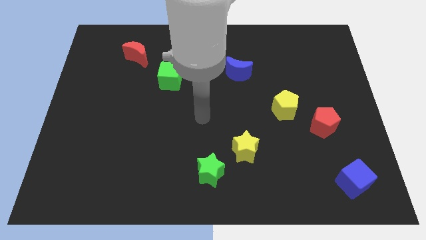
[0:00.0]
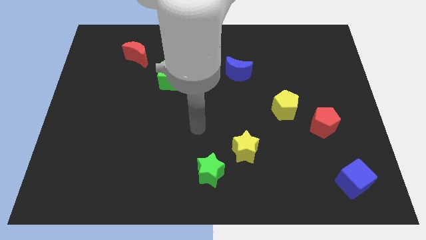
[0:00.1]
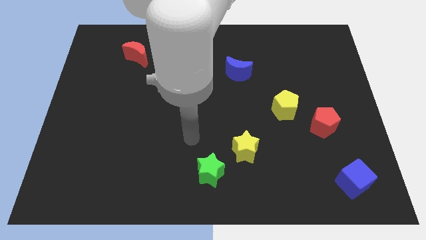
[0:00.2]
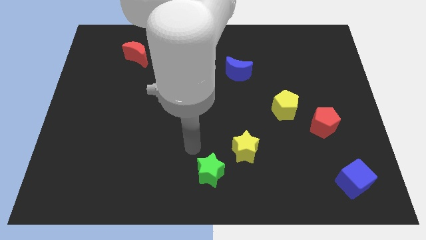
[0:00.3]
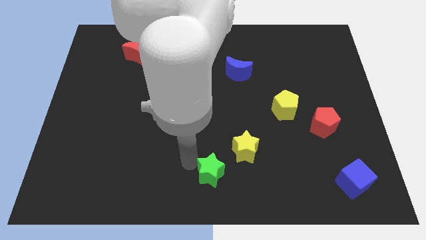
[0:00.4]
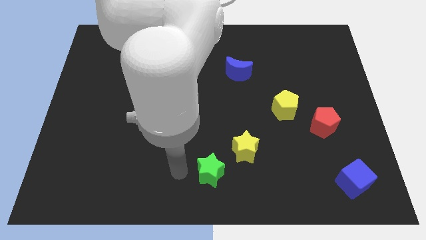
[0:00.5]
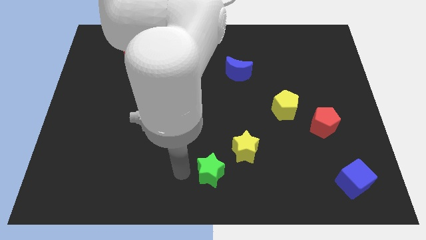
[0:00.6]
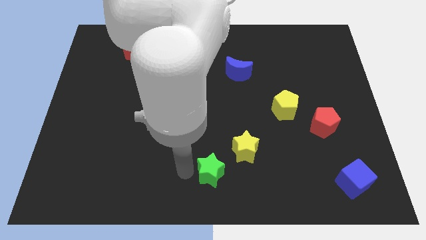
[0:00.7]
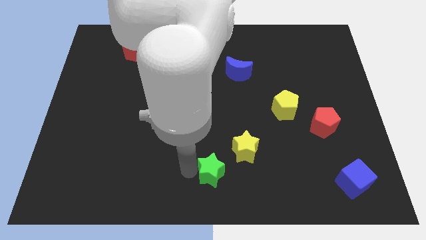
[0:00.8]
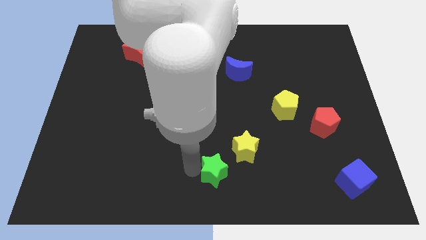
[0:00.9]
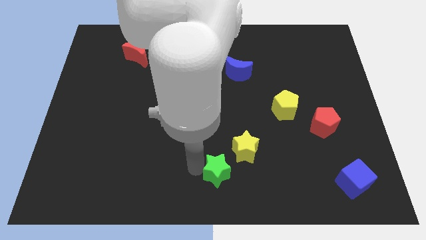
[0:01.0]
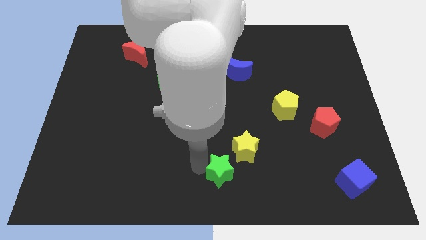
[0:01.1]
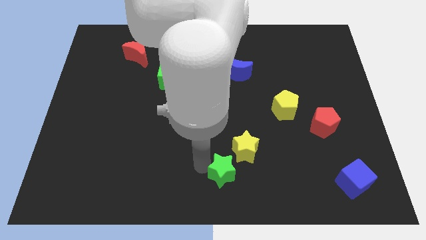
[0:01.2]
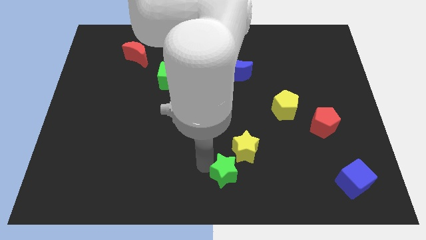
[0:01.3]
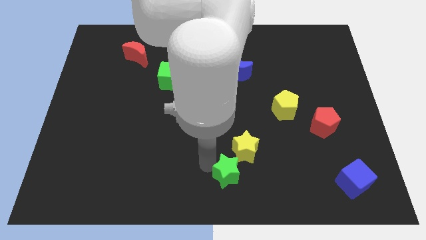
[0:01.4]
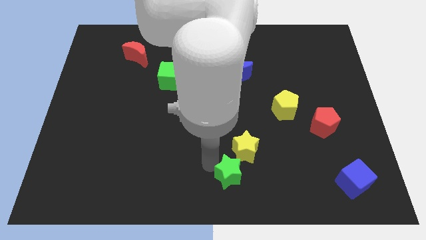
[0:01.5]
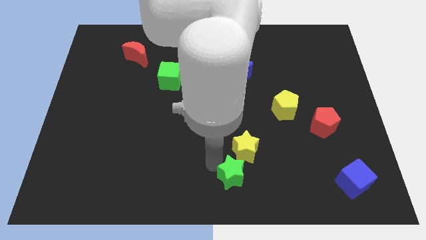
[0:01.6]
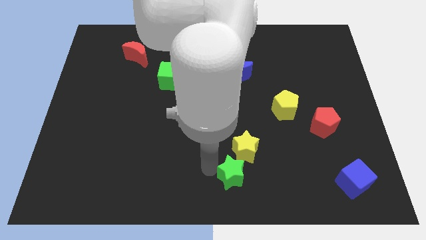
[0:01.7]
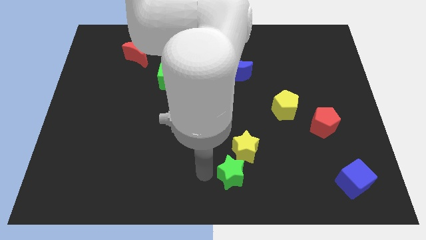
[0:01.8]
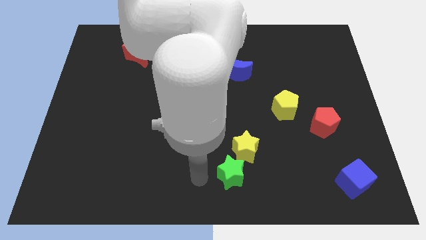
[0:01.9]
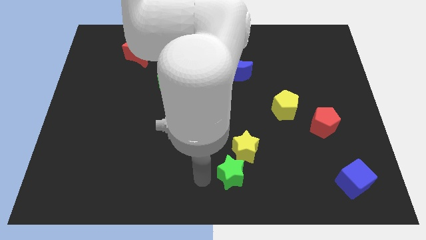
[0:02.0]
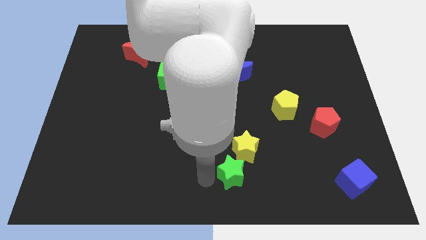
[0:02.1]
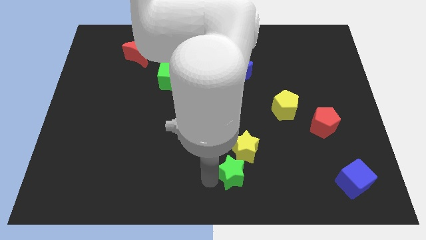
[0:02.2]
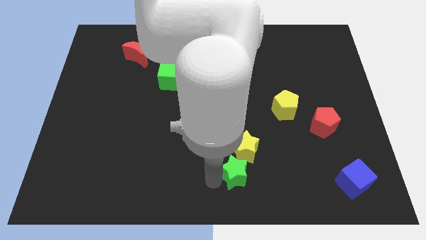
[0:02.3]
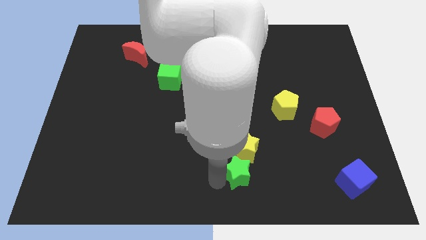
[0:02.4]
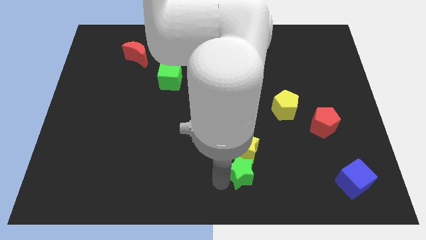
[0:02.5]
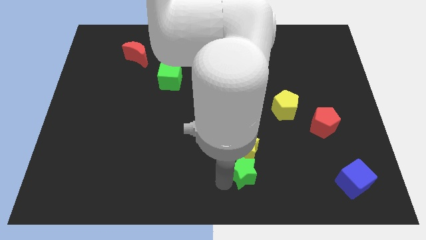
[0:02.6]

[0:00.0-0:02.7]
slide the green star somewhat to the right

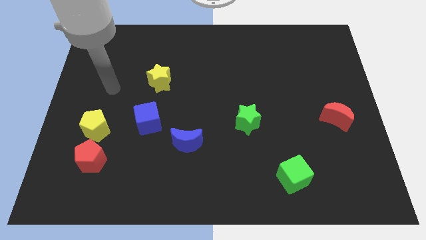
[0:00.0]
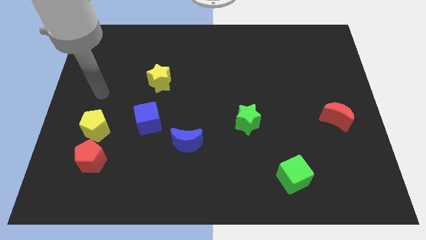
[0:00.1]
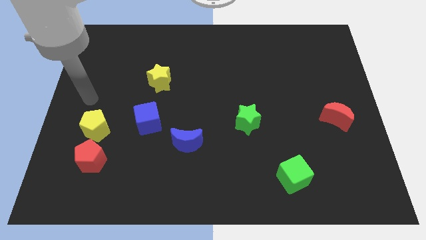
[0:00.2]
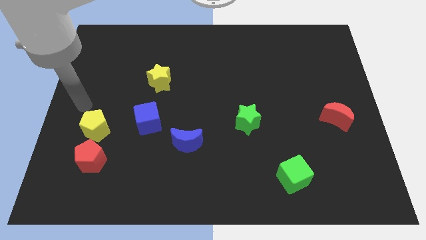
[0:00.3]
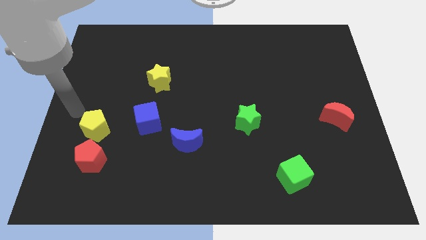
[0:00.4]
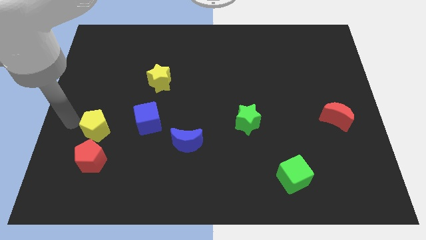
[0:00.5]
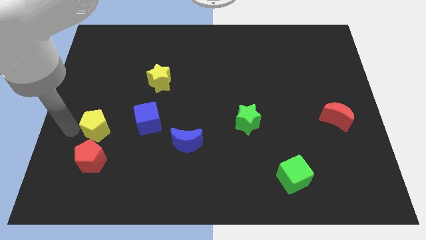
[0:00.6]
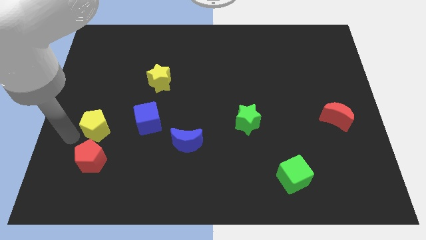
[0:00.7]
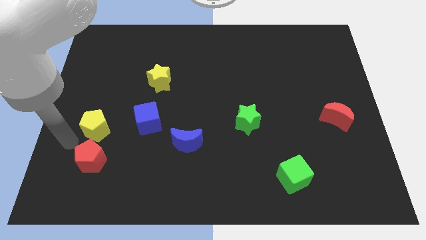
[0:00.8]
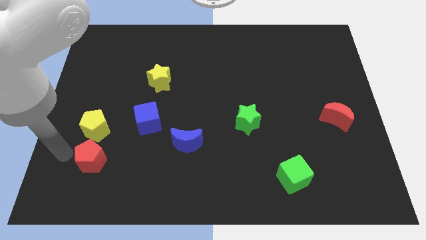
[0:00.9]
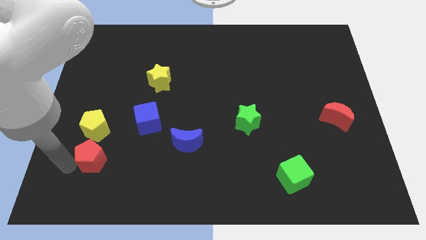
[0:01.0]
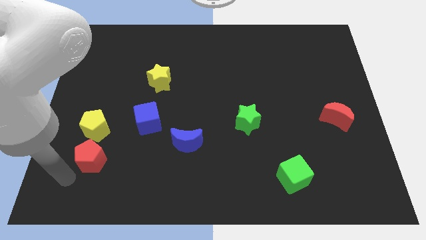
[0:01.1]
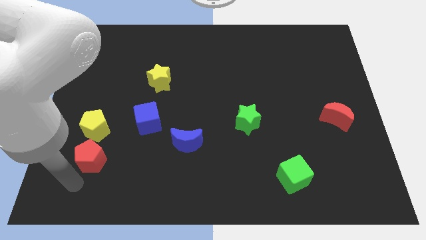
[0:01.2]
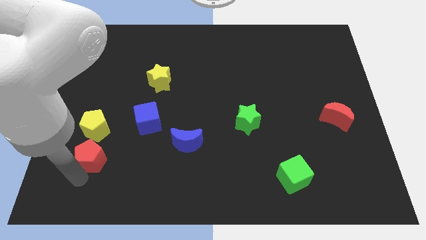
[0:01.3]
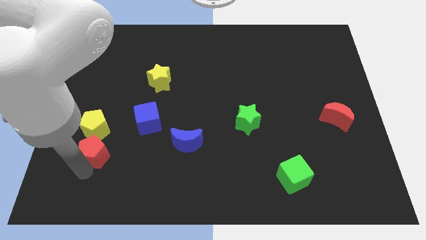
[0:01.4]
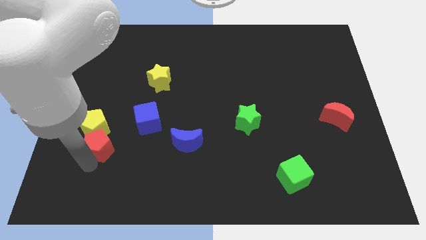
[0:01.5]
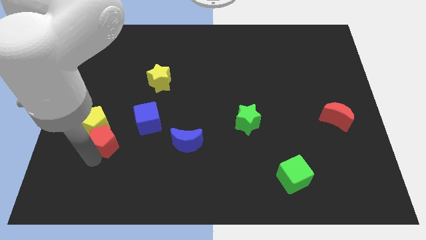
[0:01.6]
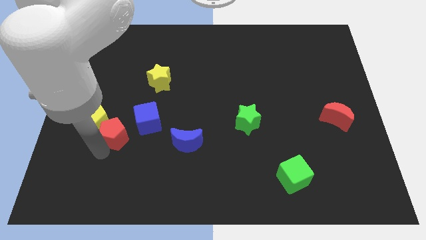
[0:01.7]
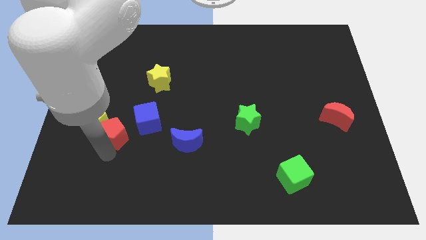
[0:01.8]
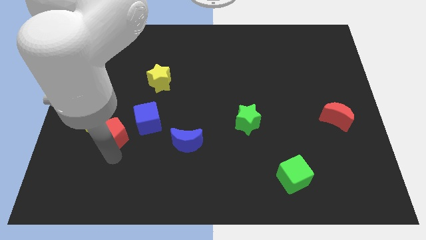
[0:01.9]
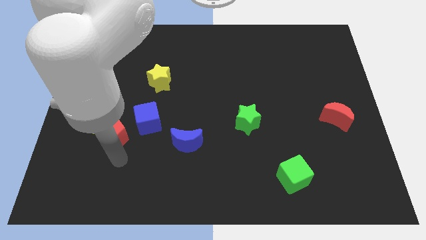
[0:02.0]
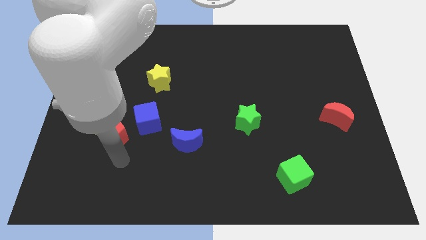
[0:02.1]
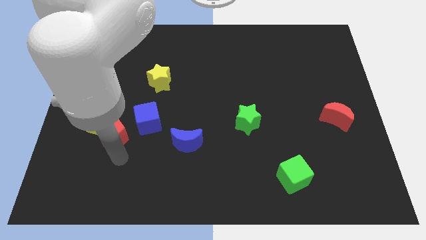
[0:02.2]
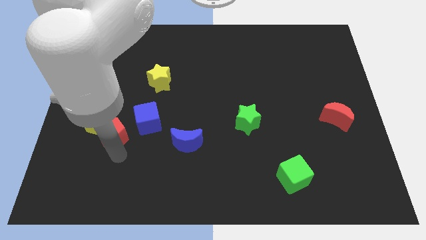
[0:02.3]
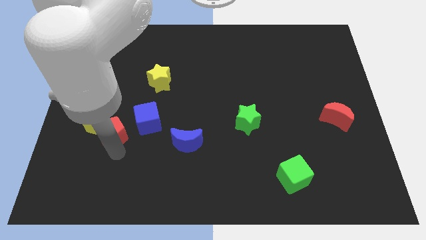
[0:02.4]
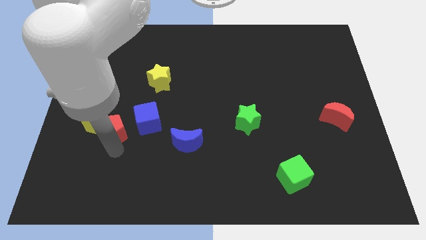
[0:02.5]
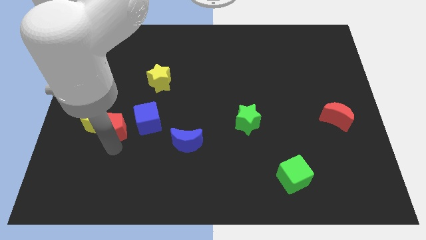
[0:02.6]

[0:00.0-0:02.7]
slide the red pentagon a little upwards

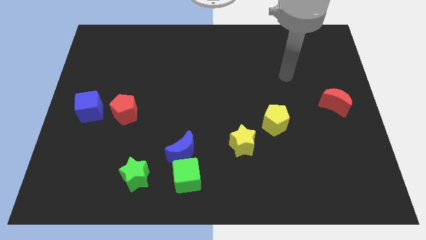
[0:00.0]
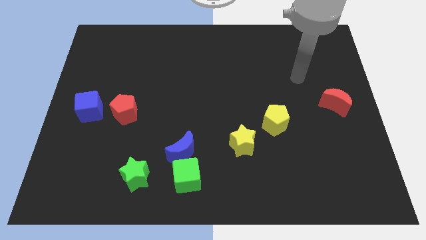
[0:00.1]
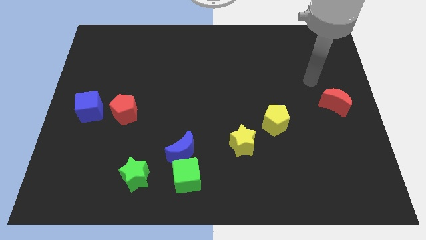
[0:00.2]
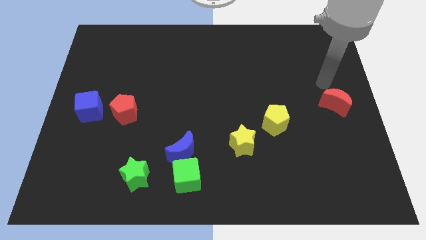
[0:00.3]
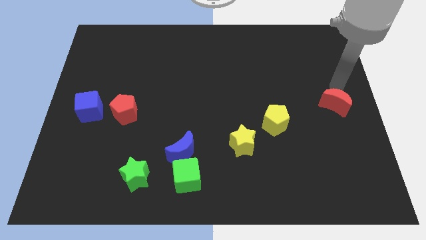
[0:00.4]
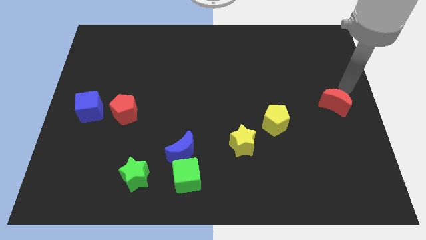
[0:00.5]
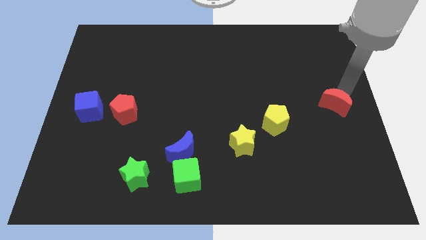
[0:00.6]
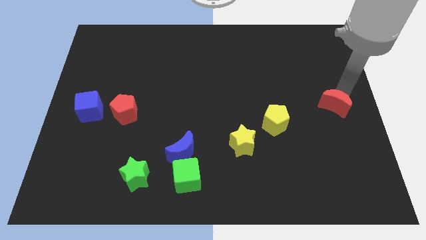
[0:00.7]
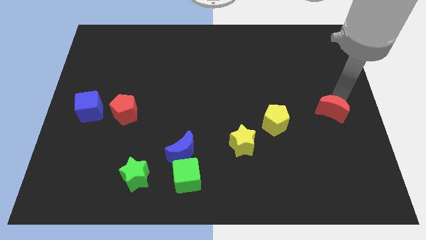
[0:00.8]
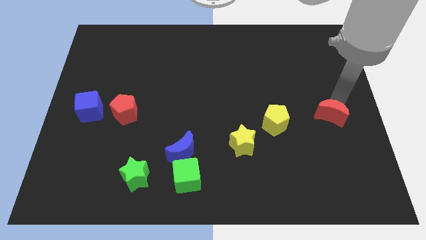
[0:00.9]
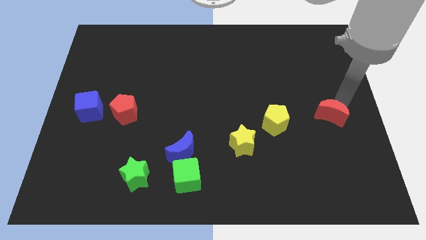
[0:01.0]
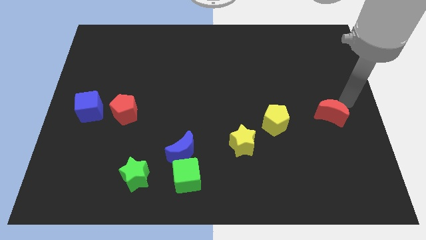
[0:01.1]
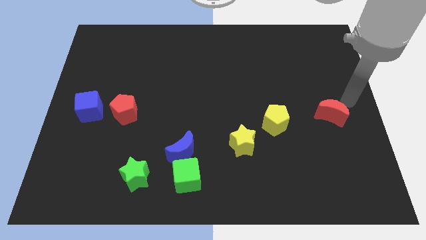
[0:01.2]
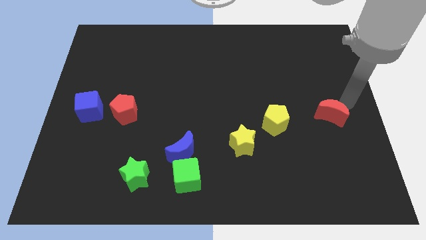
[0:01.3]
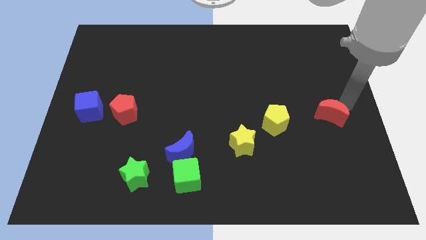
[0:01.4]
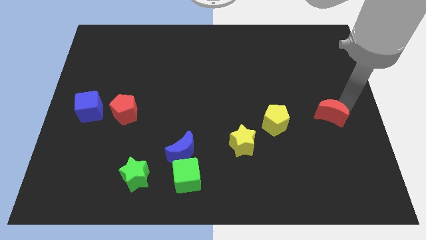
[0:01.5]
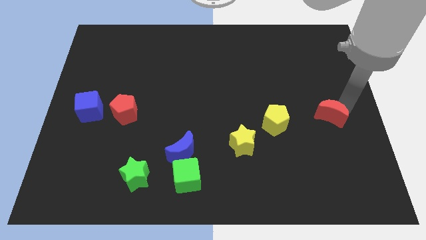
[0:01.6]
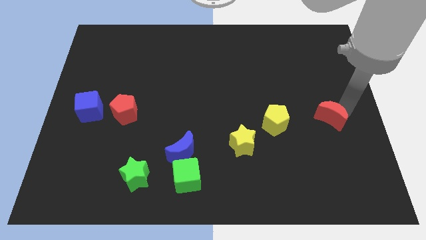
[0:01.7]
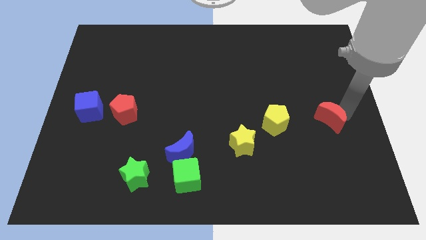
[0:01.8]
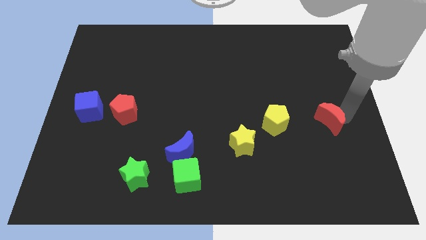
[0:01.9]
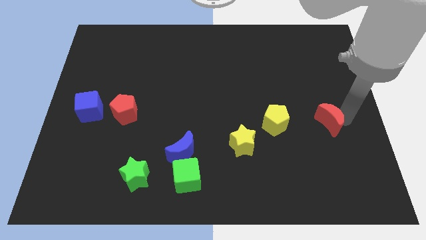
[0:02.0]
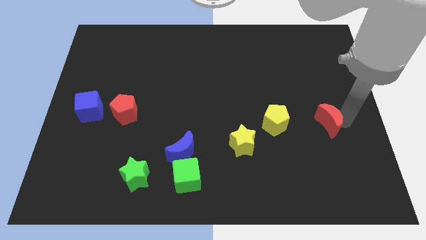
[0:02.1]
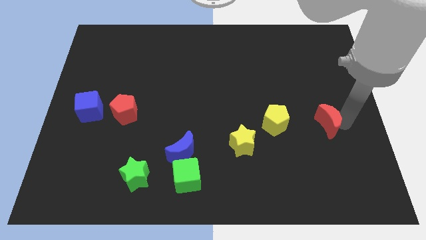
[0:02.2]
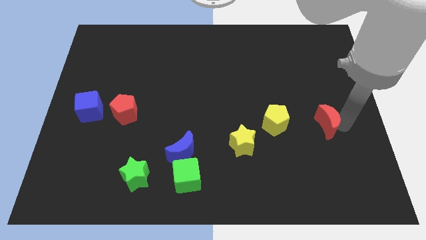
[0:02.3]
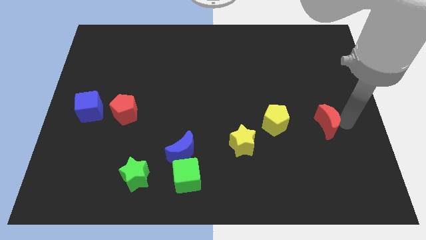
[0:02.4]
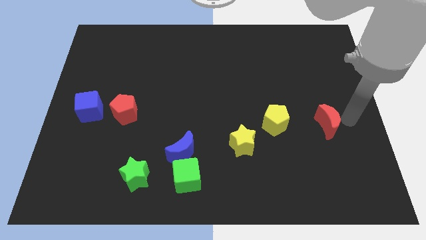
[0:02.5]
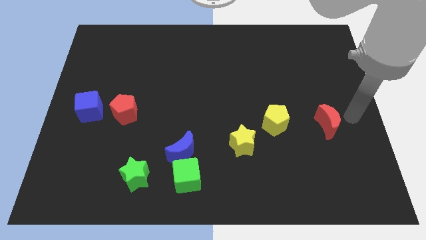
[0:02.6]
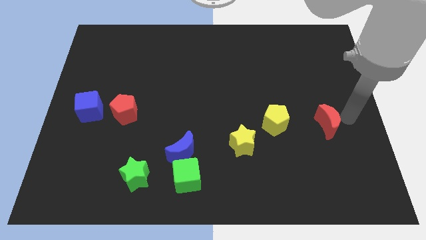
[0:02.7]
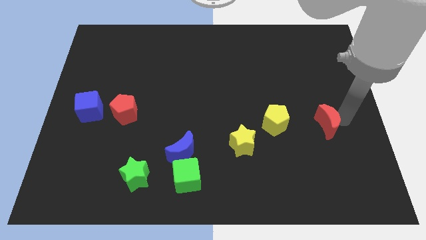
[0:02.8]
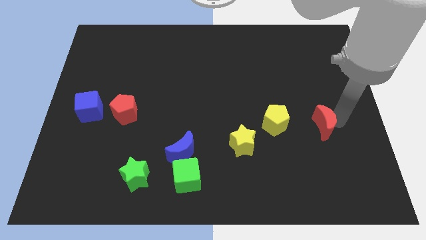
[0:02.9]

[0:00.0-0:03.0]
slightly slide the red moon down and left
